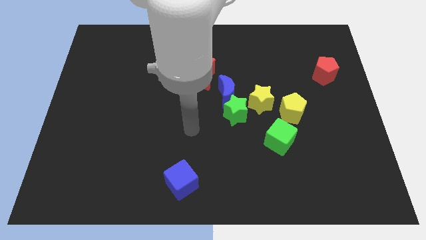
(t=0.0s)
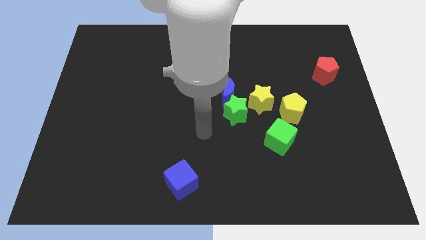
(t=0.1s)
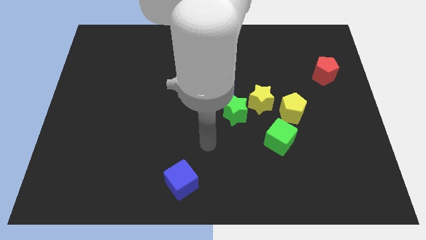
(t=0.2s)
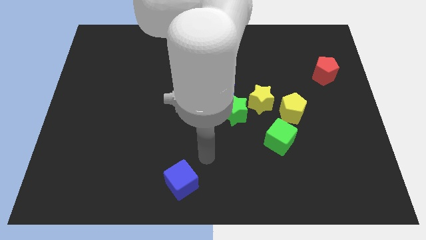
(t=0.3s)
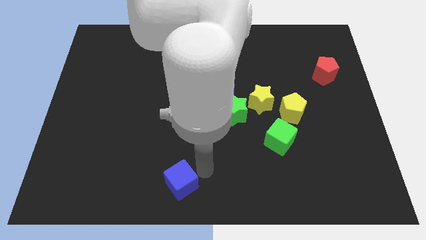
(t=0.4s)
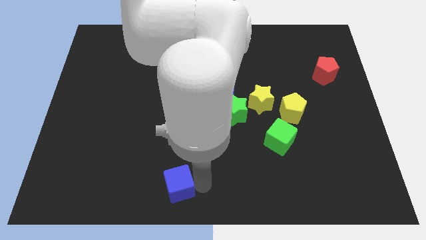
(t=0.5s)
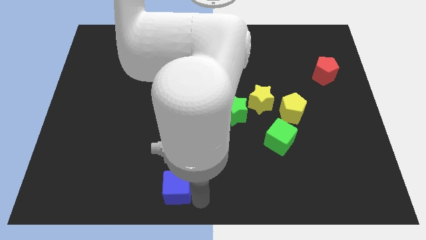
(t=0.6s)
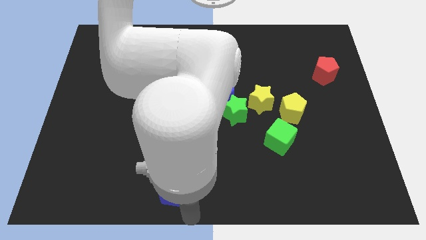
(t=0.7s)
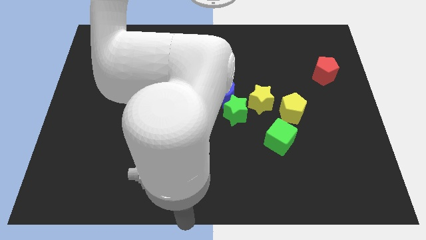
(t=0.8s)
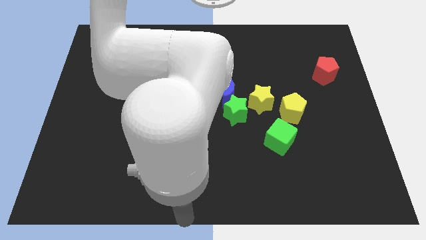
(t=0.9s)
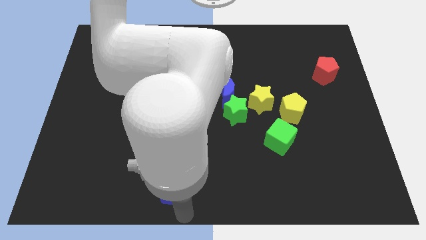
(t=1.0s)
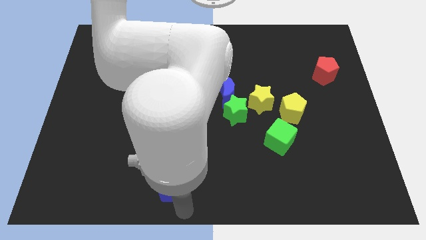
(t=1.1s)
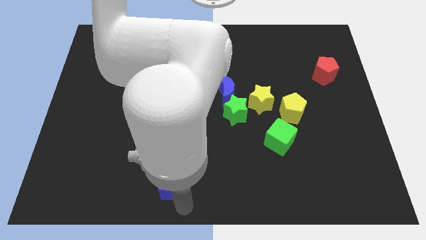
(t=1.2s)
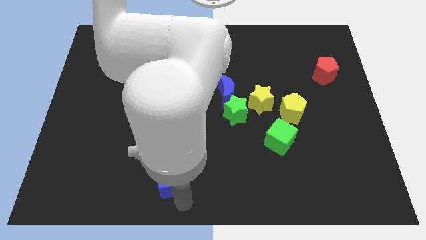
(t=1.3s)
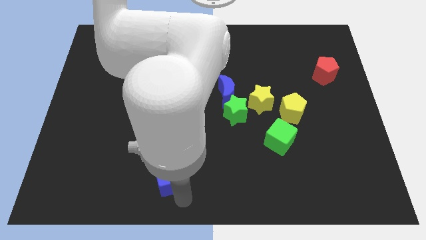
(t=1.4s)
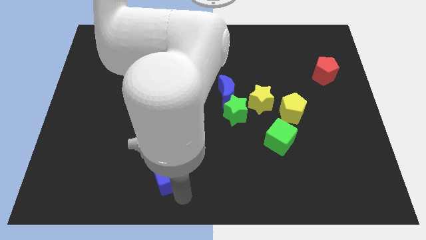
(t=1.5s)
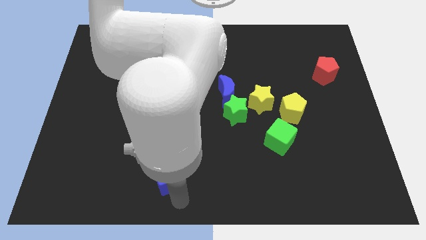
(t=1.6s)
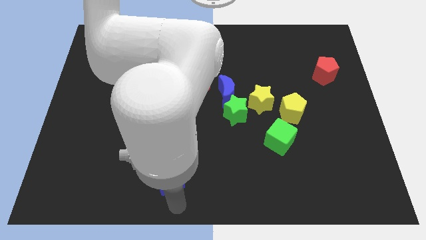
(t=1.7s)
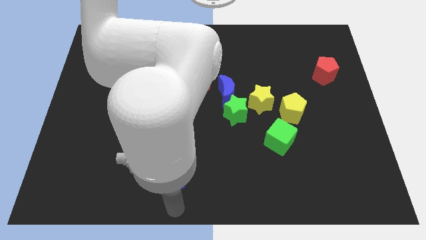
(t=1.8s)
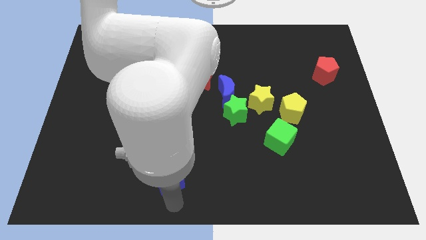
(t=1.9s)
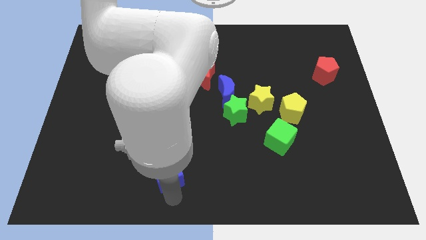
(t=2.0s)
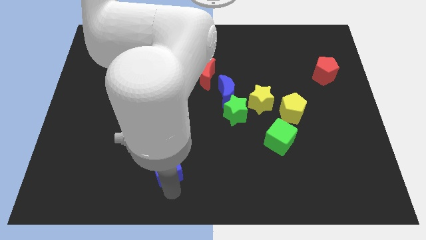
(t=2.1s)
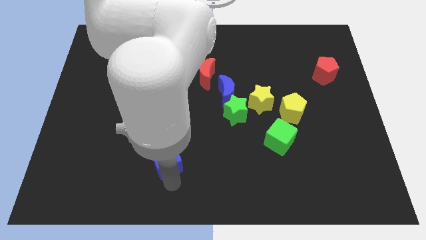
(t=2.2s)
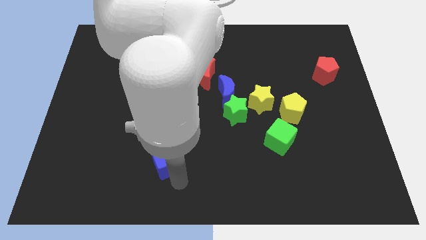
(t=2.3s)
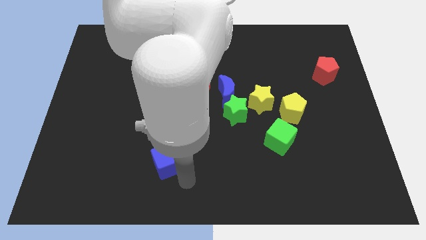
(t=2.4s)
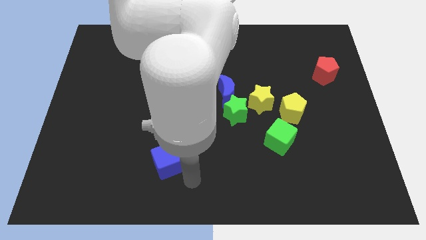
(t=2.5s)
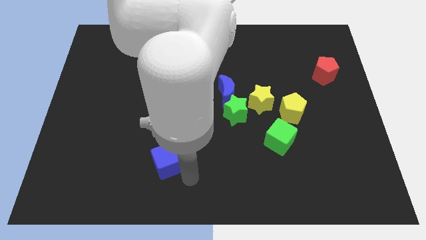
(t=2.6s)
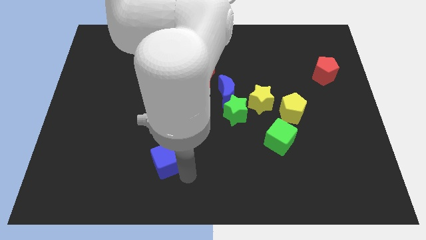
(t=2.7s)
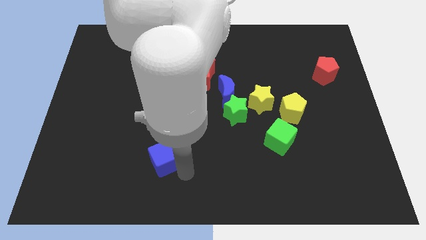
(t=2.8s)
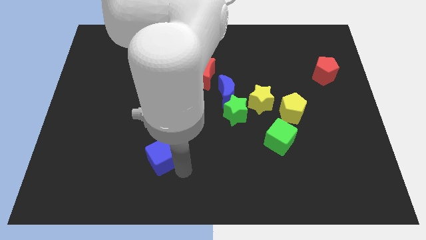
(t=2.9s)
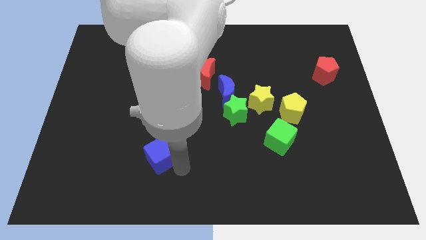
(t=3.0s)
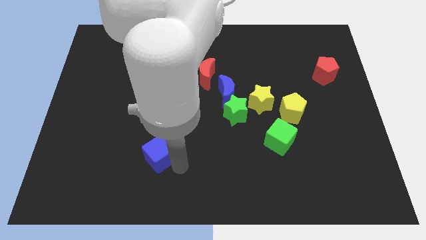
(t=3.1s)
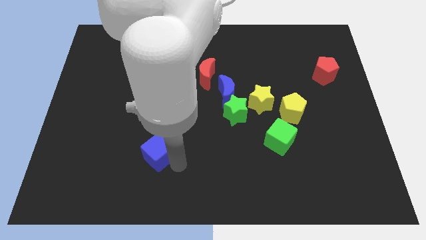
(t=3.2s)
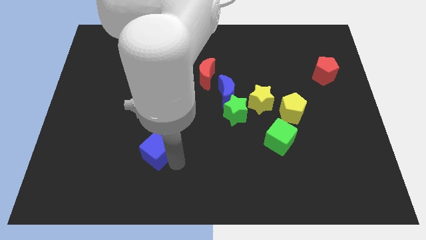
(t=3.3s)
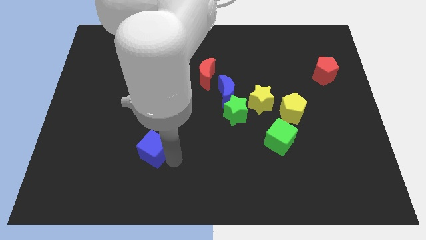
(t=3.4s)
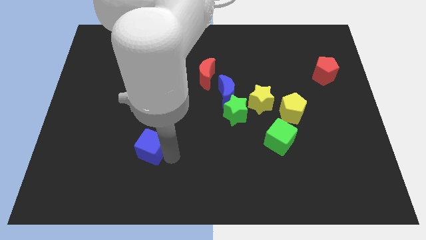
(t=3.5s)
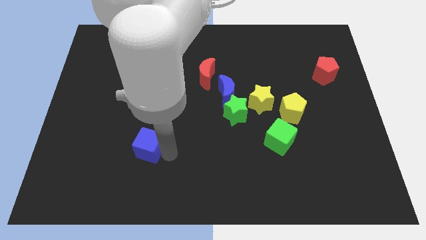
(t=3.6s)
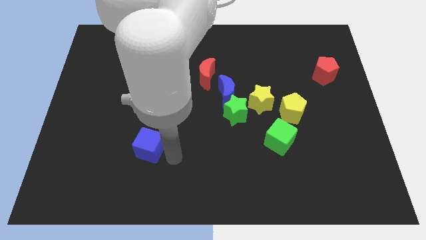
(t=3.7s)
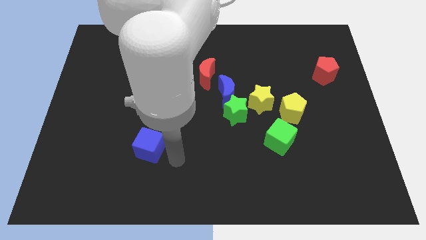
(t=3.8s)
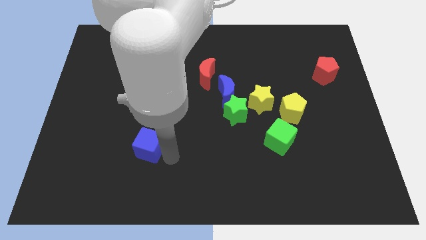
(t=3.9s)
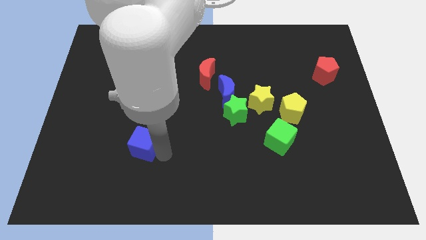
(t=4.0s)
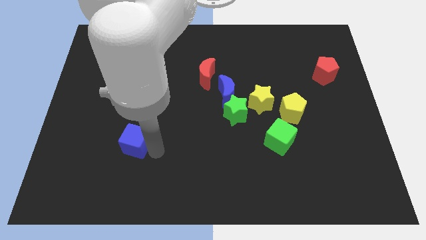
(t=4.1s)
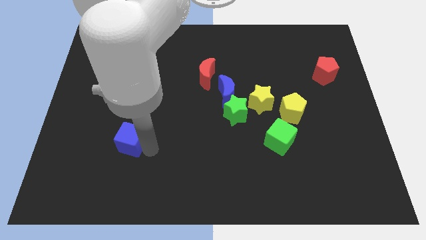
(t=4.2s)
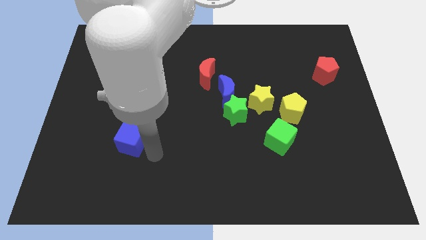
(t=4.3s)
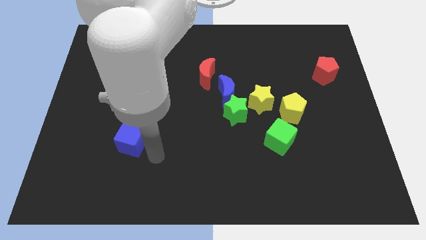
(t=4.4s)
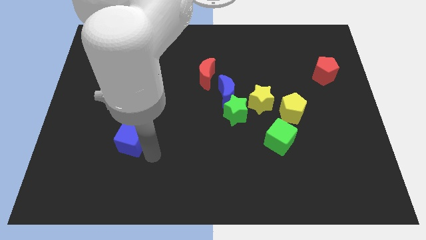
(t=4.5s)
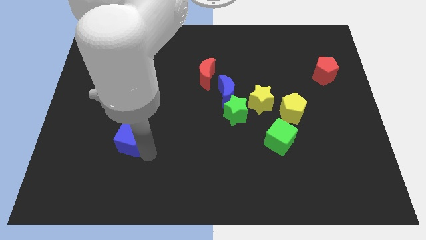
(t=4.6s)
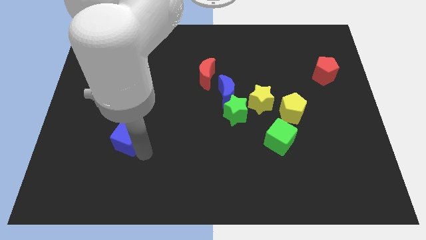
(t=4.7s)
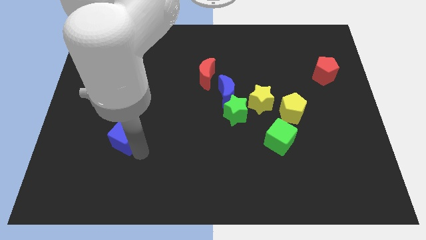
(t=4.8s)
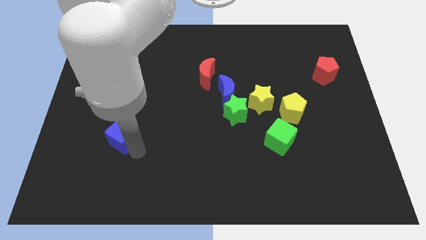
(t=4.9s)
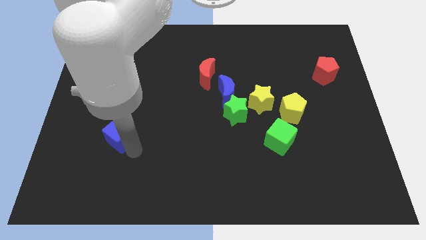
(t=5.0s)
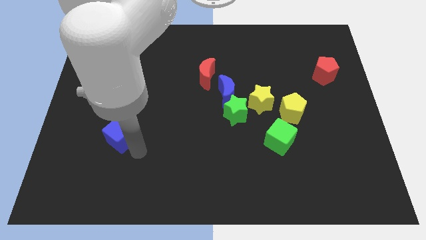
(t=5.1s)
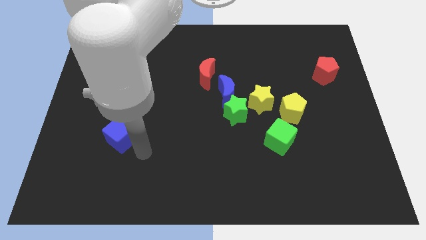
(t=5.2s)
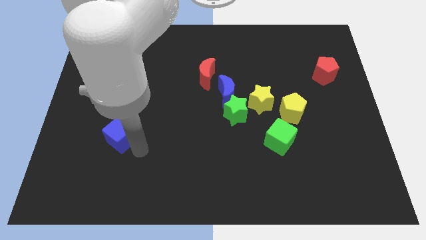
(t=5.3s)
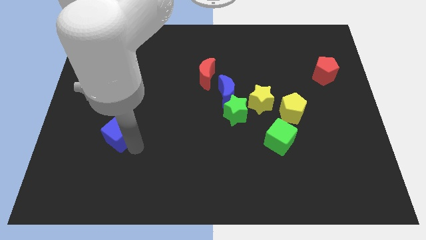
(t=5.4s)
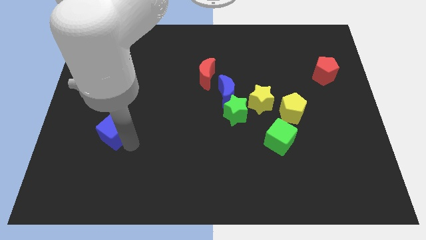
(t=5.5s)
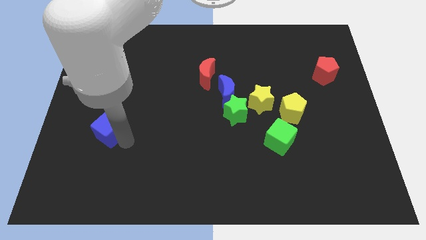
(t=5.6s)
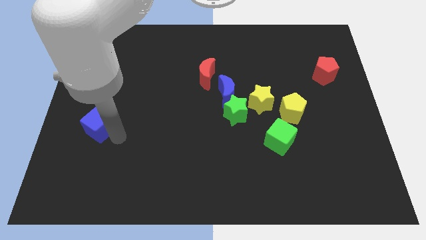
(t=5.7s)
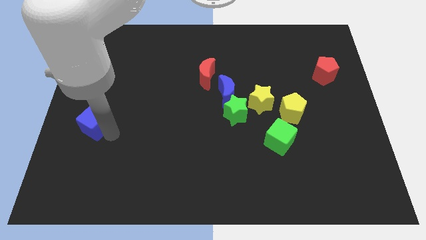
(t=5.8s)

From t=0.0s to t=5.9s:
push the blue cube to the center left

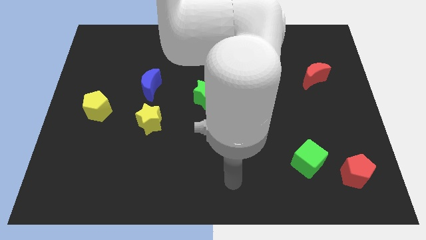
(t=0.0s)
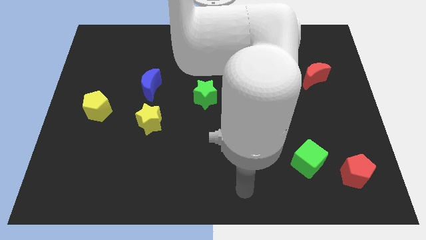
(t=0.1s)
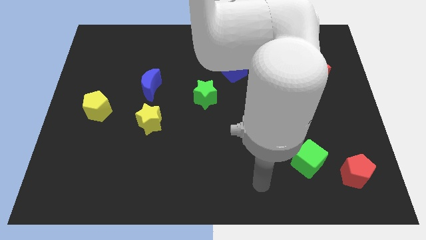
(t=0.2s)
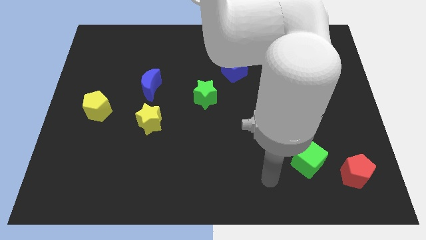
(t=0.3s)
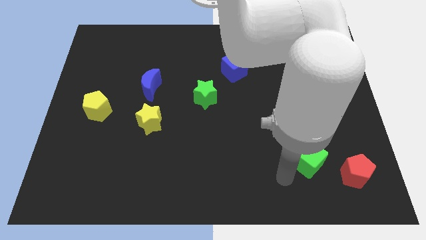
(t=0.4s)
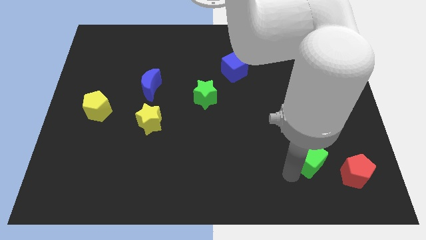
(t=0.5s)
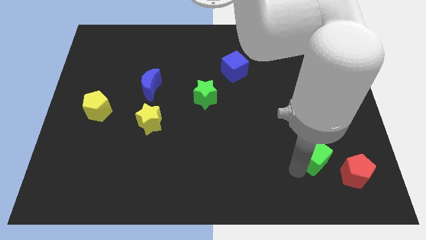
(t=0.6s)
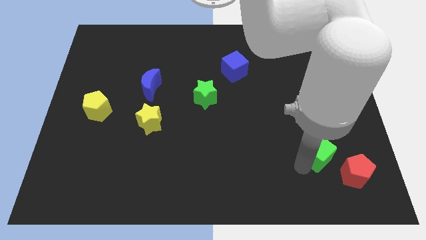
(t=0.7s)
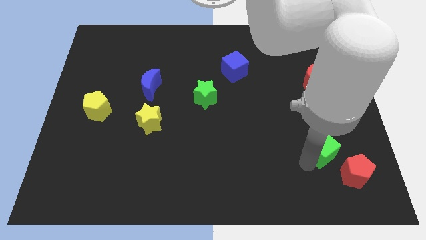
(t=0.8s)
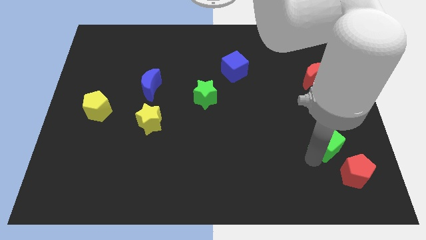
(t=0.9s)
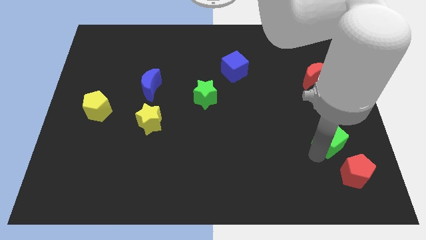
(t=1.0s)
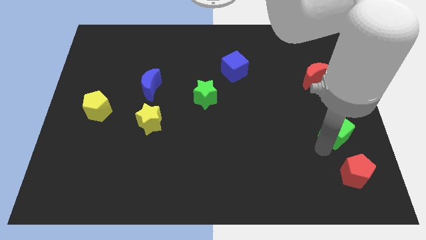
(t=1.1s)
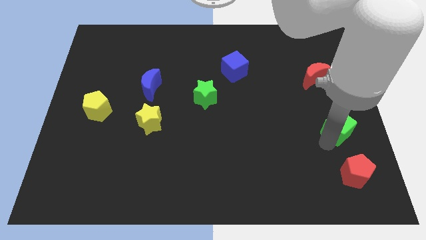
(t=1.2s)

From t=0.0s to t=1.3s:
move the green cube to the right side

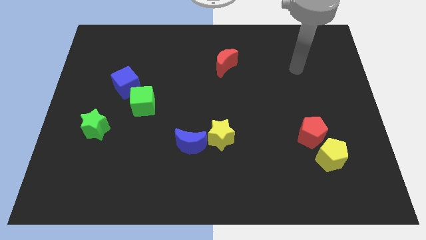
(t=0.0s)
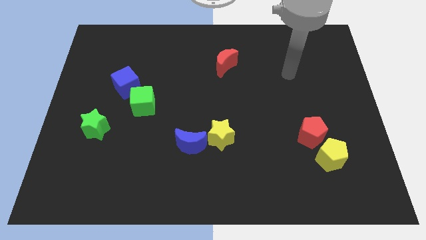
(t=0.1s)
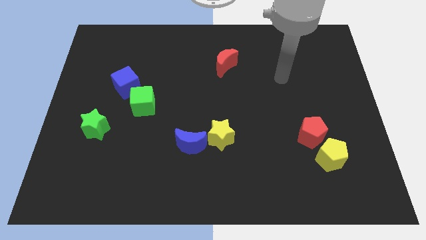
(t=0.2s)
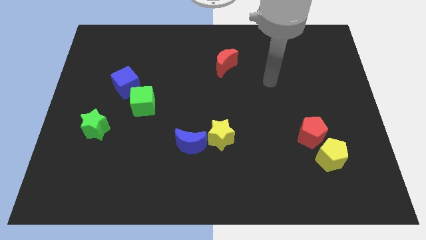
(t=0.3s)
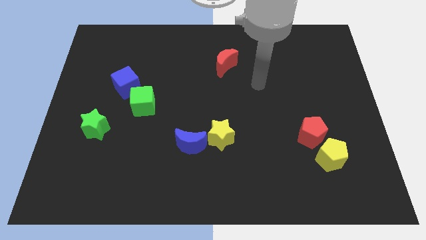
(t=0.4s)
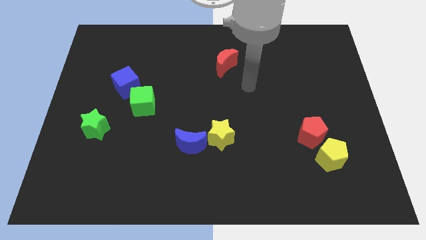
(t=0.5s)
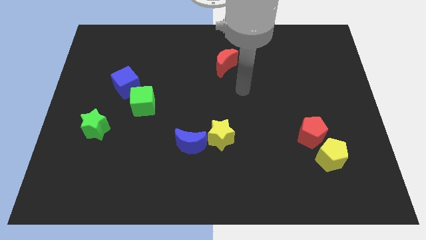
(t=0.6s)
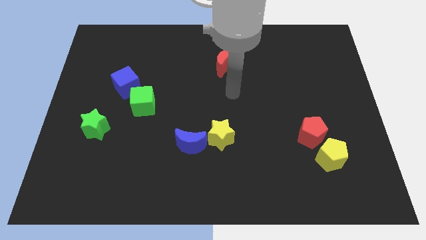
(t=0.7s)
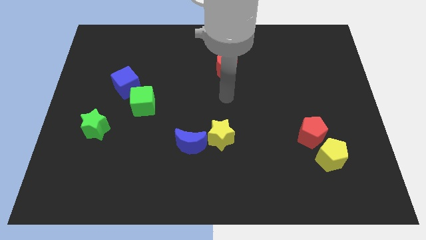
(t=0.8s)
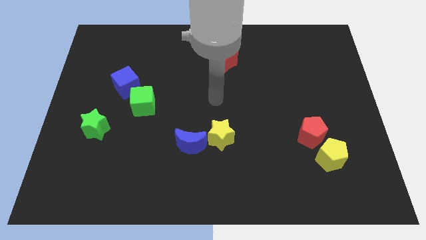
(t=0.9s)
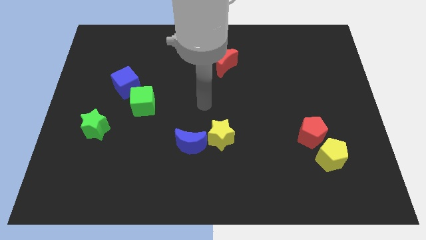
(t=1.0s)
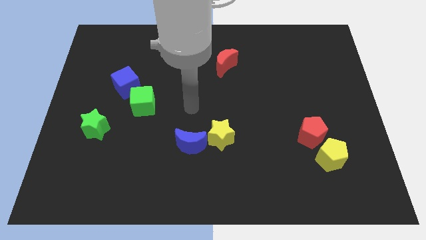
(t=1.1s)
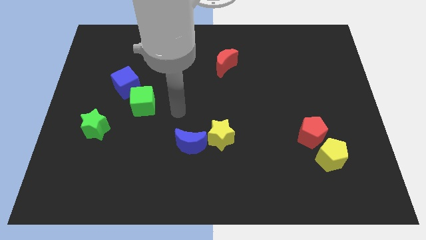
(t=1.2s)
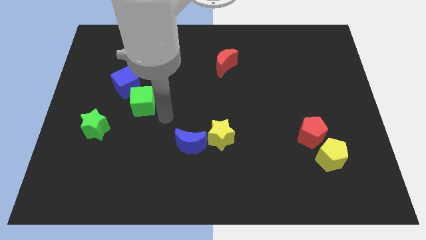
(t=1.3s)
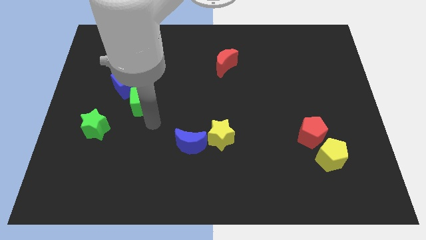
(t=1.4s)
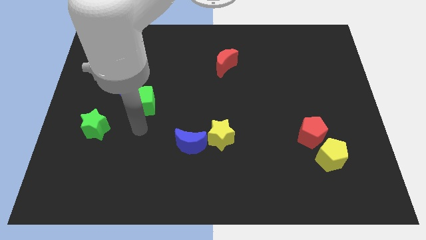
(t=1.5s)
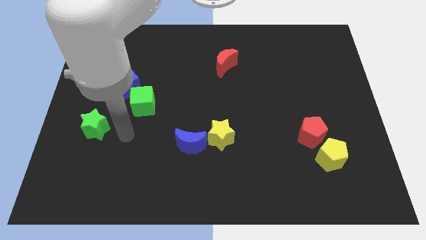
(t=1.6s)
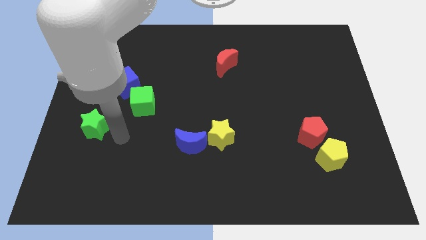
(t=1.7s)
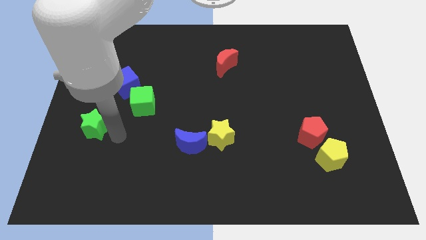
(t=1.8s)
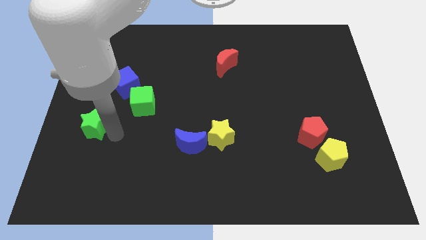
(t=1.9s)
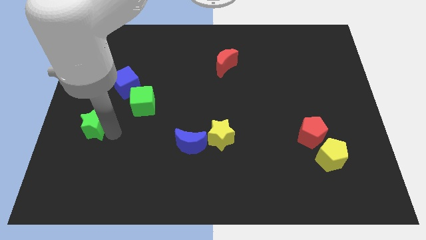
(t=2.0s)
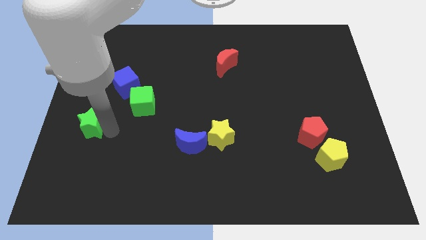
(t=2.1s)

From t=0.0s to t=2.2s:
move the green star to the center left
